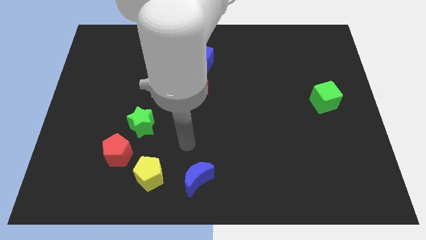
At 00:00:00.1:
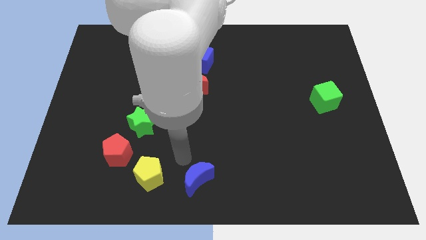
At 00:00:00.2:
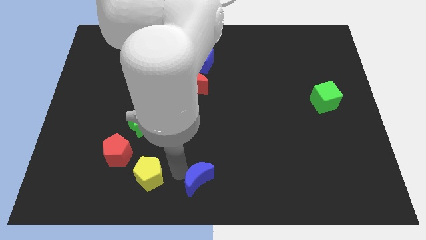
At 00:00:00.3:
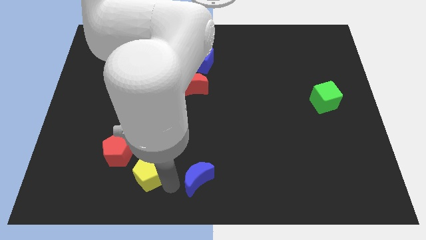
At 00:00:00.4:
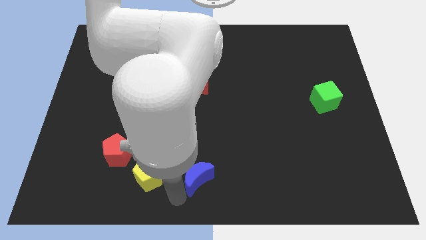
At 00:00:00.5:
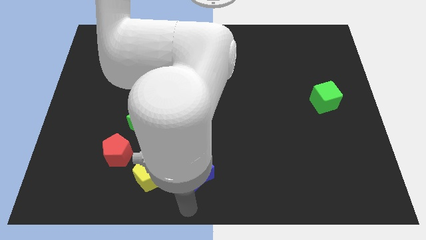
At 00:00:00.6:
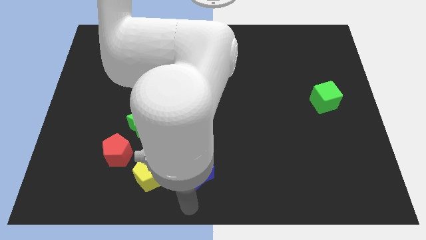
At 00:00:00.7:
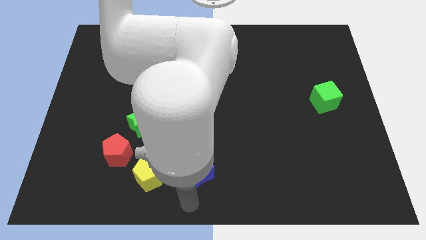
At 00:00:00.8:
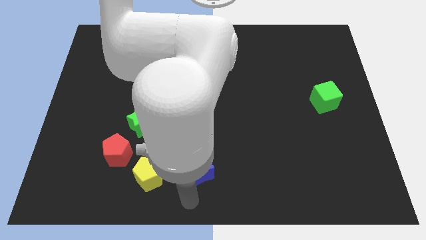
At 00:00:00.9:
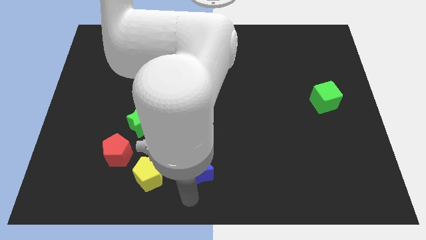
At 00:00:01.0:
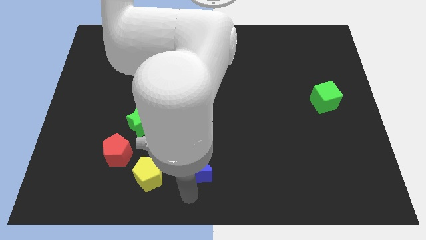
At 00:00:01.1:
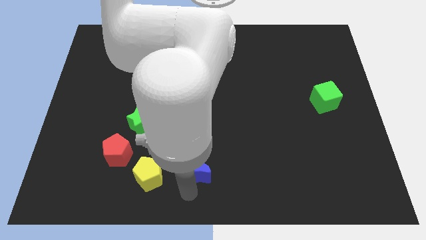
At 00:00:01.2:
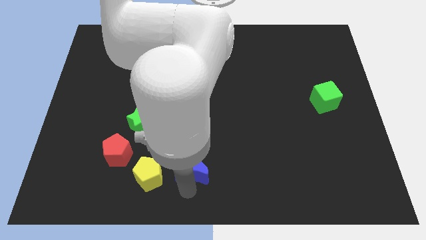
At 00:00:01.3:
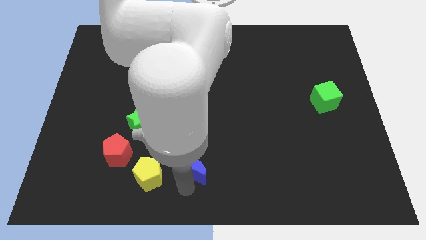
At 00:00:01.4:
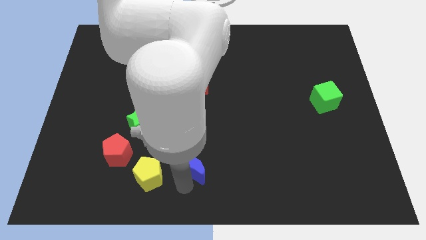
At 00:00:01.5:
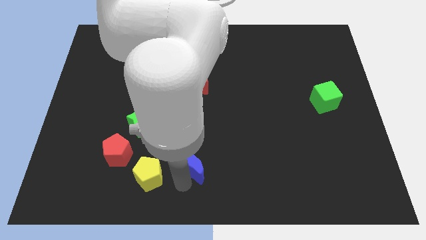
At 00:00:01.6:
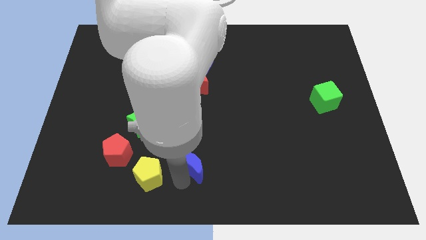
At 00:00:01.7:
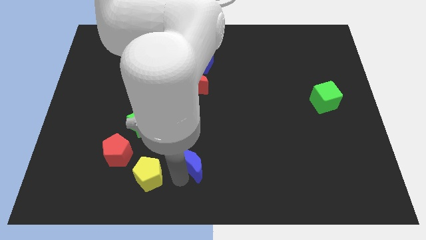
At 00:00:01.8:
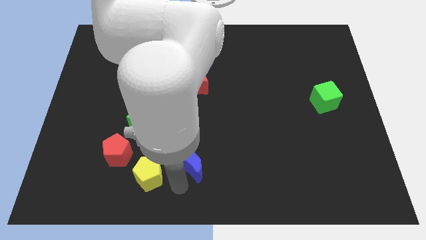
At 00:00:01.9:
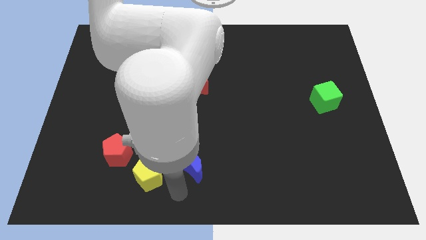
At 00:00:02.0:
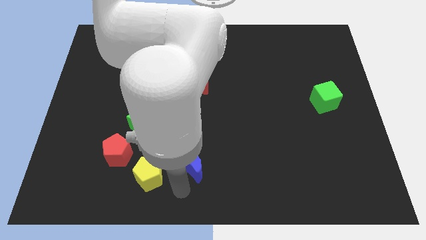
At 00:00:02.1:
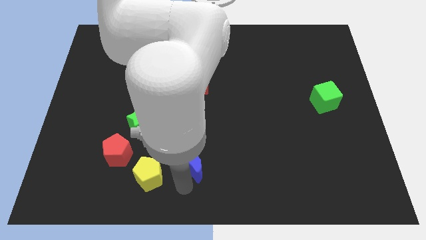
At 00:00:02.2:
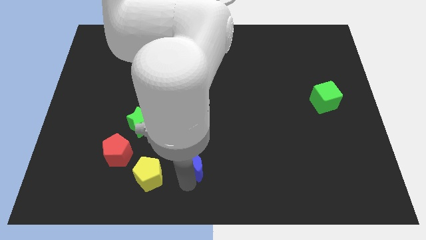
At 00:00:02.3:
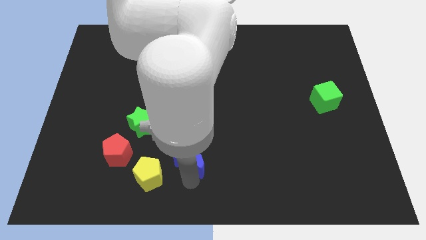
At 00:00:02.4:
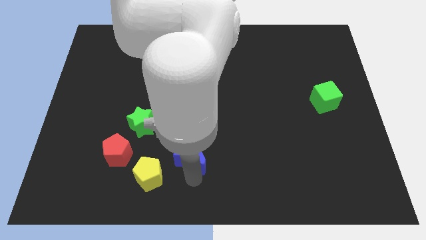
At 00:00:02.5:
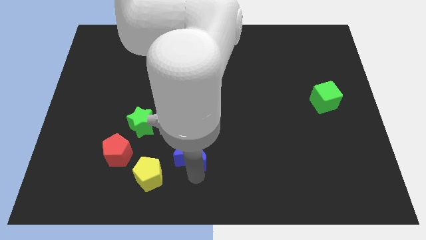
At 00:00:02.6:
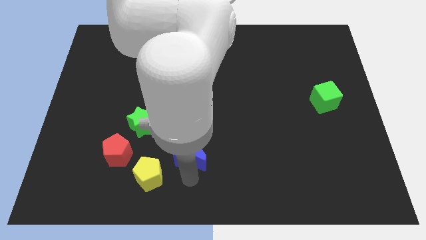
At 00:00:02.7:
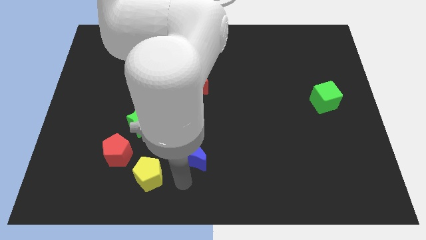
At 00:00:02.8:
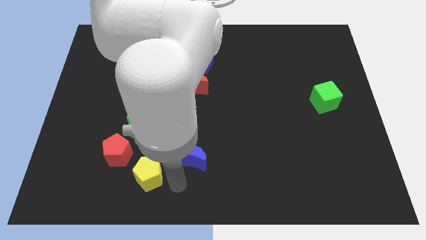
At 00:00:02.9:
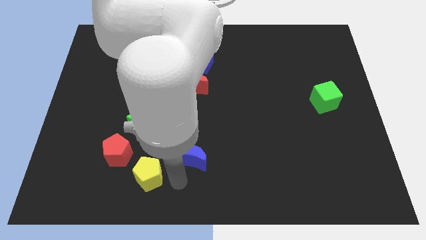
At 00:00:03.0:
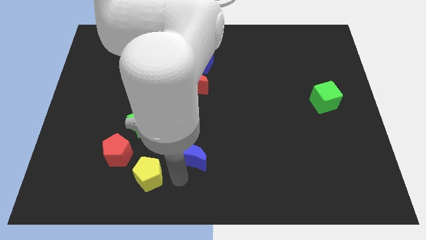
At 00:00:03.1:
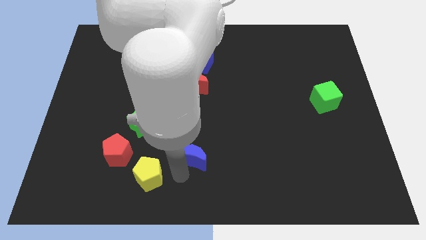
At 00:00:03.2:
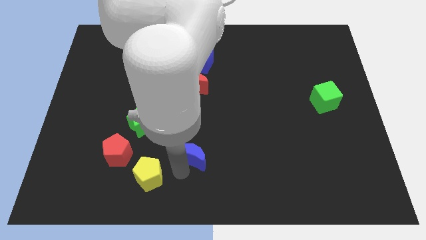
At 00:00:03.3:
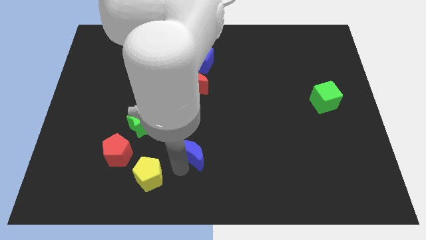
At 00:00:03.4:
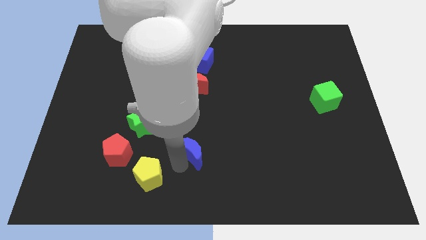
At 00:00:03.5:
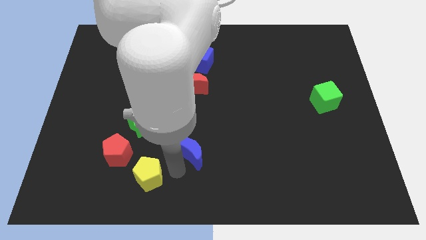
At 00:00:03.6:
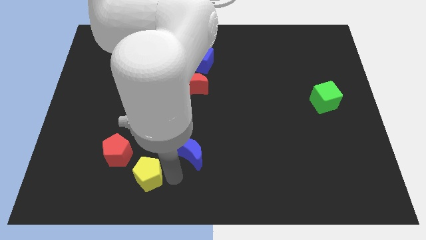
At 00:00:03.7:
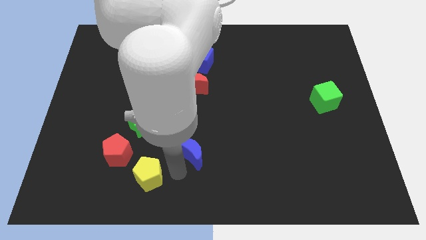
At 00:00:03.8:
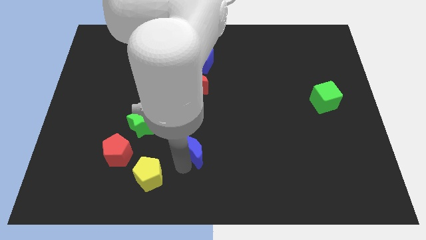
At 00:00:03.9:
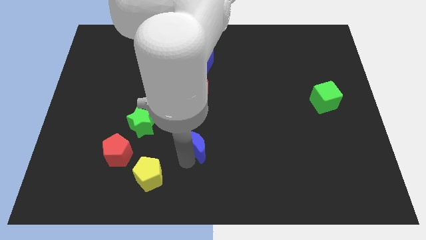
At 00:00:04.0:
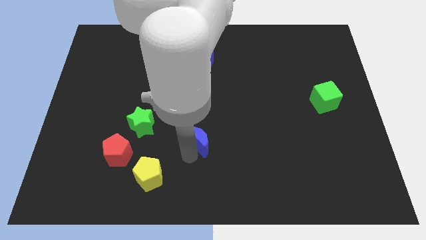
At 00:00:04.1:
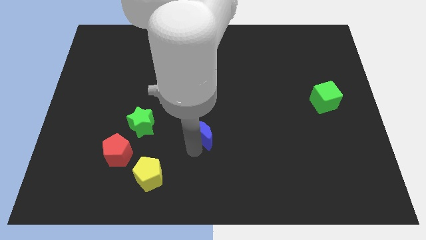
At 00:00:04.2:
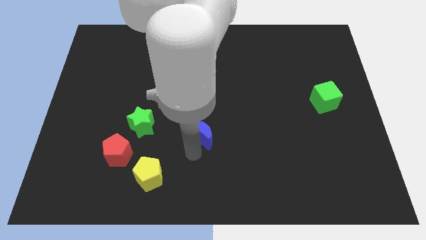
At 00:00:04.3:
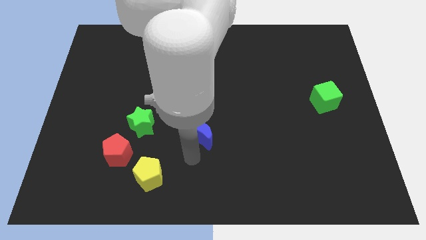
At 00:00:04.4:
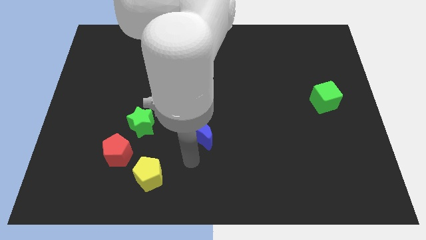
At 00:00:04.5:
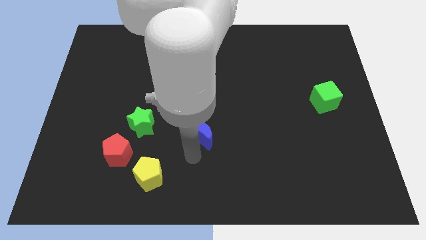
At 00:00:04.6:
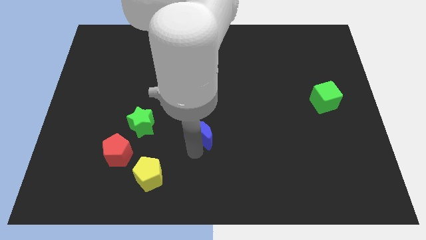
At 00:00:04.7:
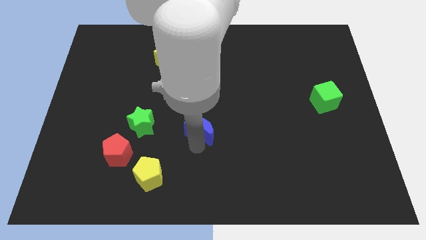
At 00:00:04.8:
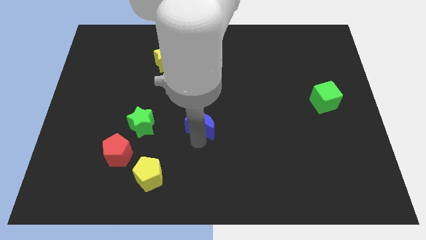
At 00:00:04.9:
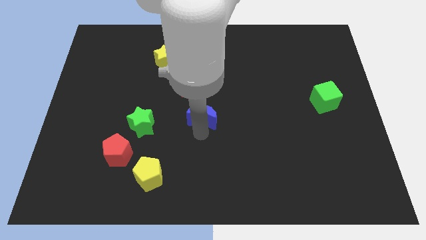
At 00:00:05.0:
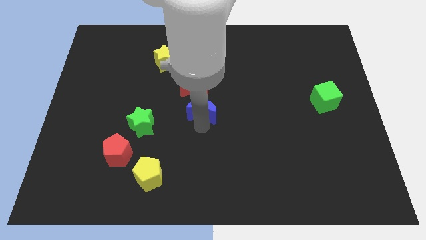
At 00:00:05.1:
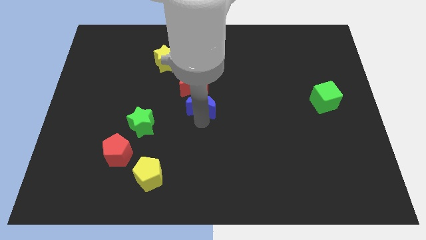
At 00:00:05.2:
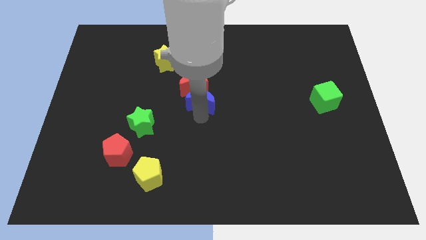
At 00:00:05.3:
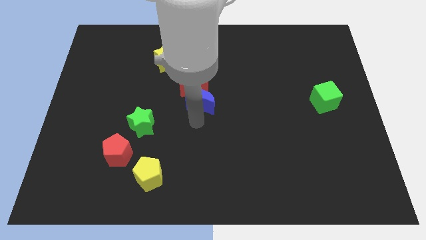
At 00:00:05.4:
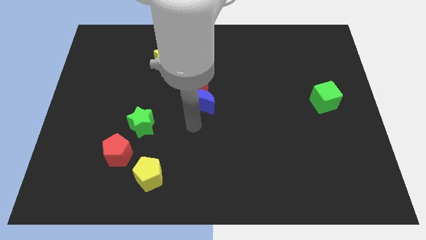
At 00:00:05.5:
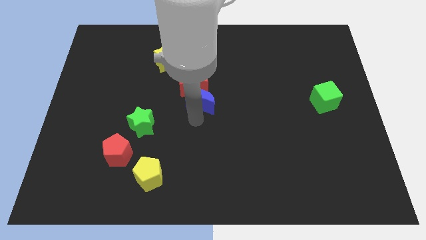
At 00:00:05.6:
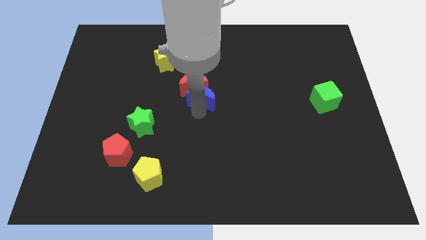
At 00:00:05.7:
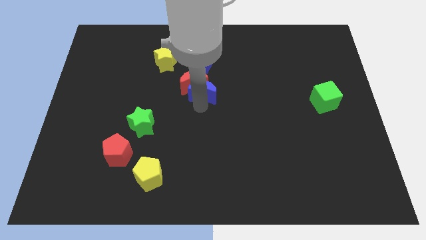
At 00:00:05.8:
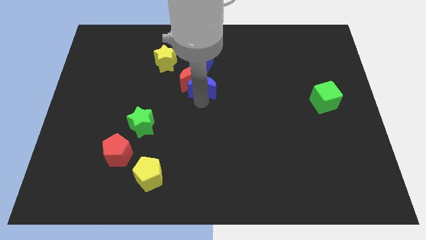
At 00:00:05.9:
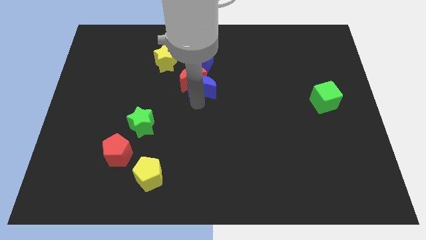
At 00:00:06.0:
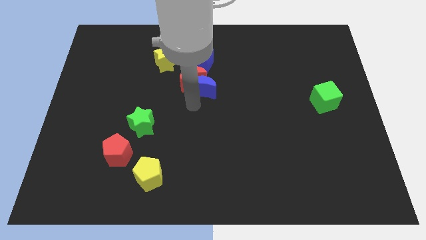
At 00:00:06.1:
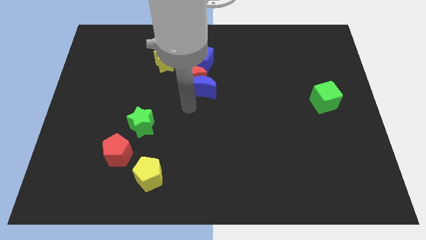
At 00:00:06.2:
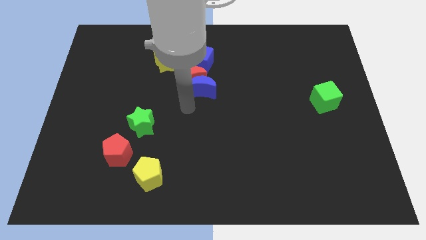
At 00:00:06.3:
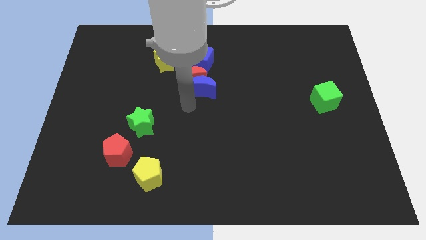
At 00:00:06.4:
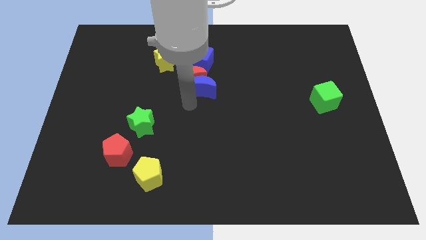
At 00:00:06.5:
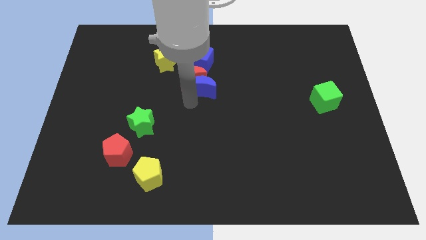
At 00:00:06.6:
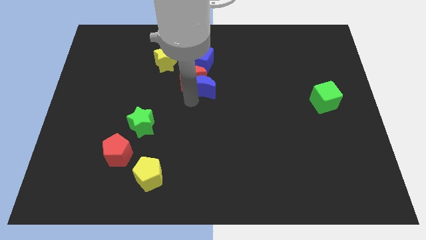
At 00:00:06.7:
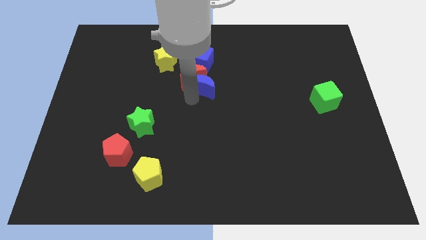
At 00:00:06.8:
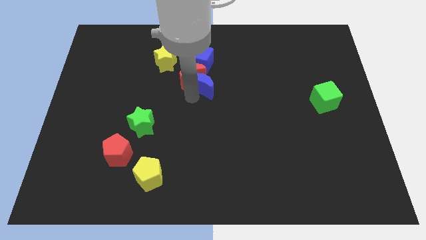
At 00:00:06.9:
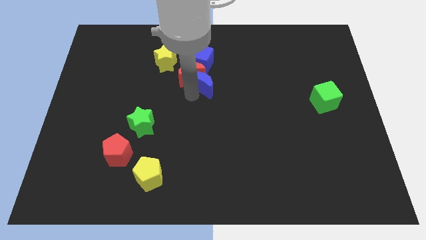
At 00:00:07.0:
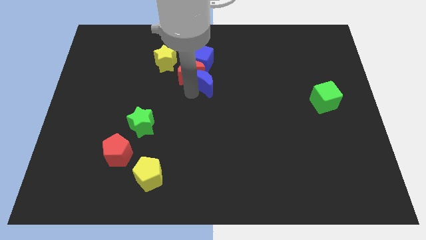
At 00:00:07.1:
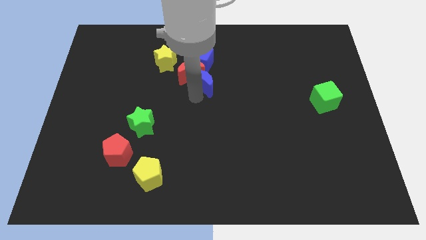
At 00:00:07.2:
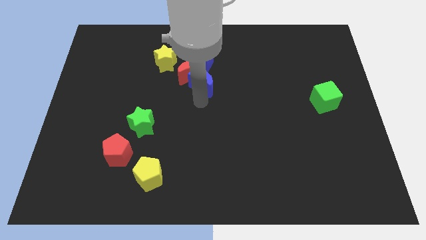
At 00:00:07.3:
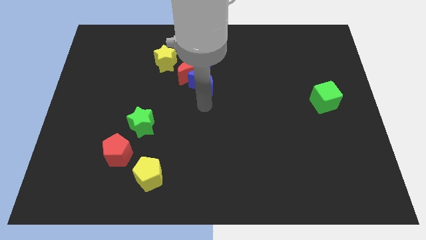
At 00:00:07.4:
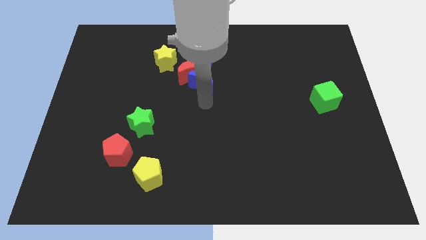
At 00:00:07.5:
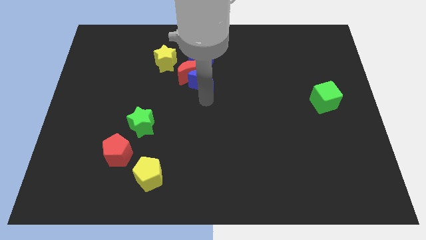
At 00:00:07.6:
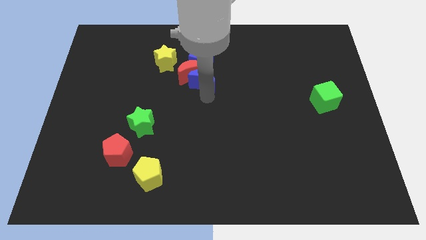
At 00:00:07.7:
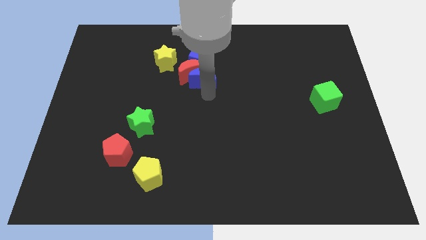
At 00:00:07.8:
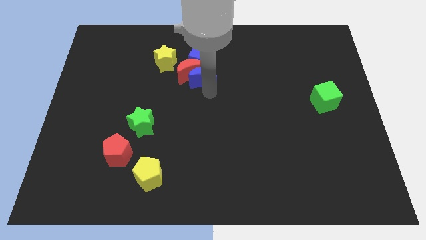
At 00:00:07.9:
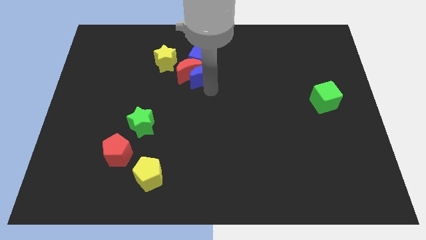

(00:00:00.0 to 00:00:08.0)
slide the blue moon next to the blue cube
